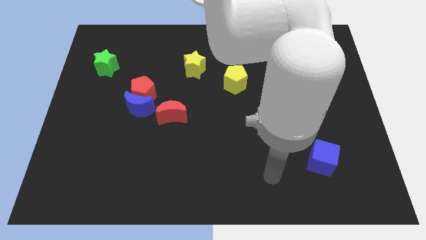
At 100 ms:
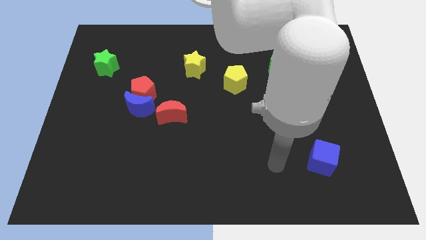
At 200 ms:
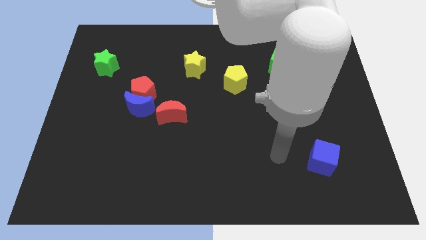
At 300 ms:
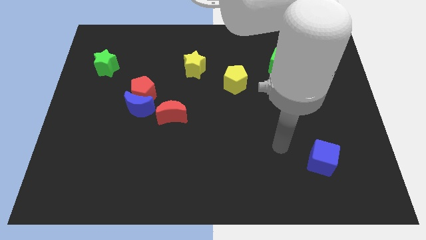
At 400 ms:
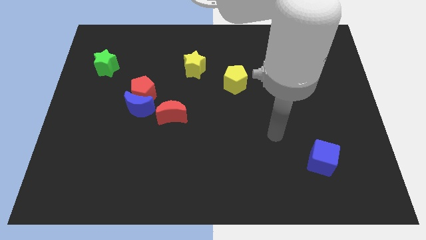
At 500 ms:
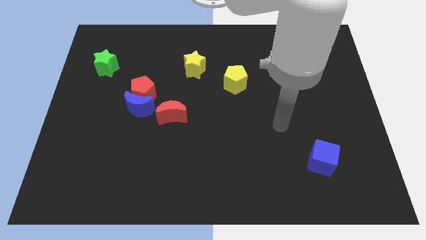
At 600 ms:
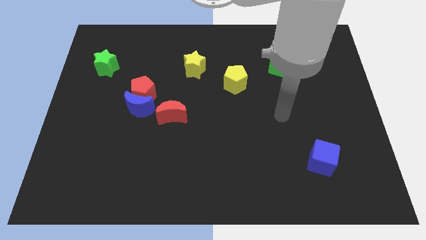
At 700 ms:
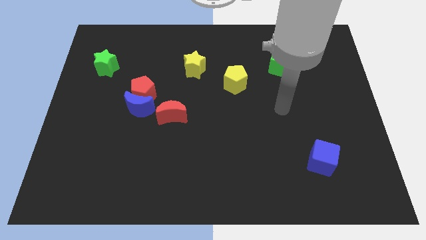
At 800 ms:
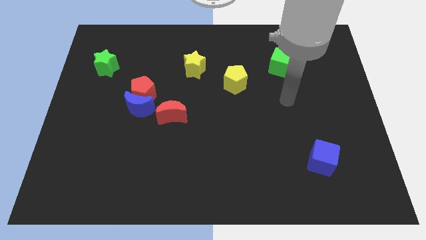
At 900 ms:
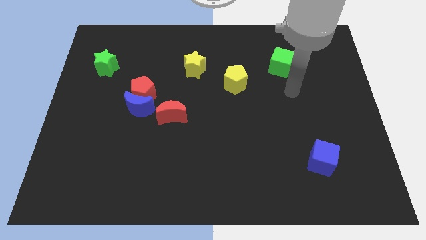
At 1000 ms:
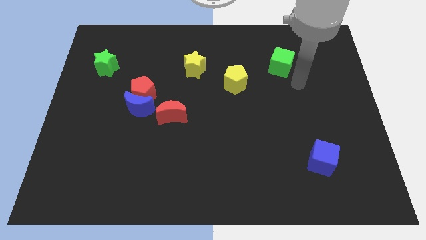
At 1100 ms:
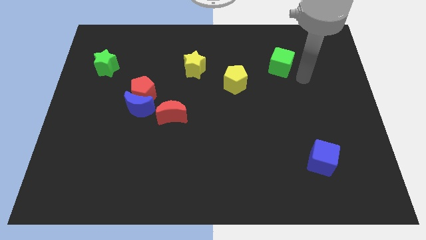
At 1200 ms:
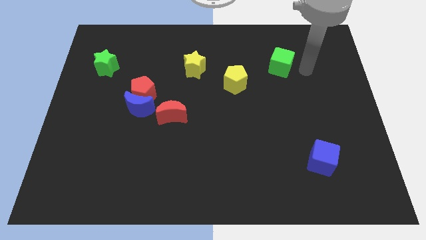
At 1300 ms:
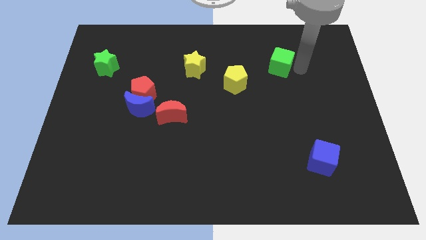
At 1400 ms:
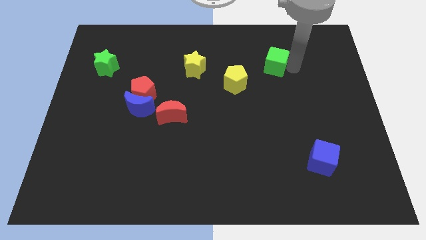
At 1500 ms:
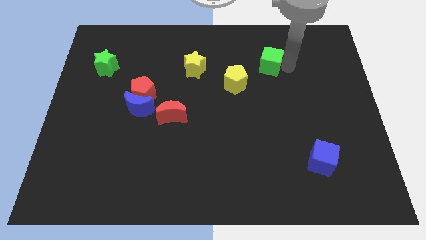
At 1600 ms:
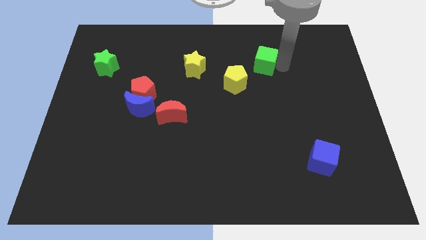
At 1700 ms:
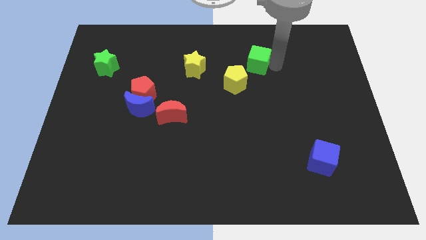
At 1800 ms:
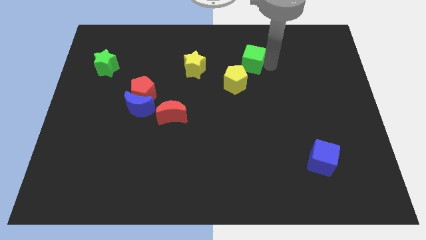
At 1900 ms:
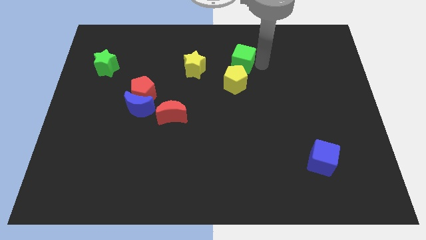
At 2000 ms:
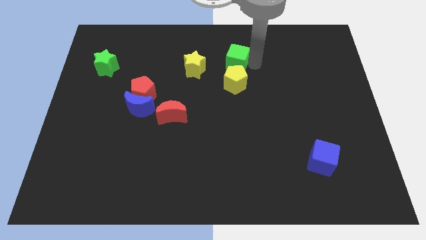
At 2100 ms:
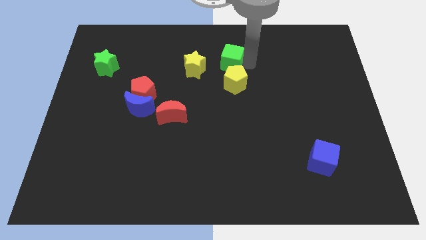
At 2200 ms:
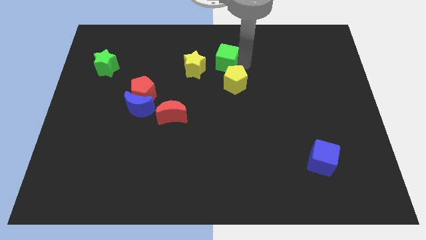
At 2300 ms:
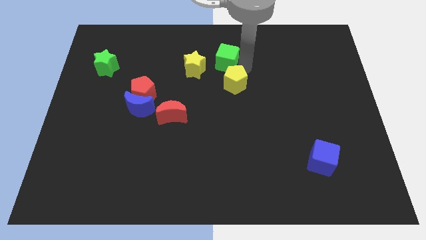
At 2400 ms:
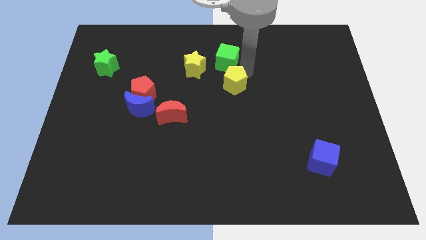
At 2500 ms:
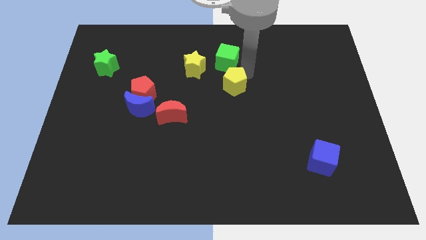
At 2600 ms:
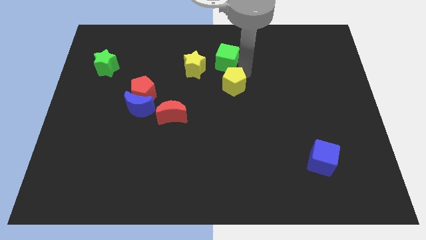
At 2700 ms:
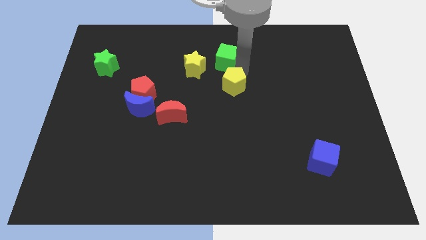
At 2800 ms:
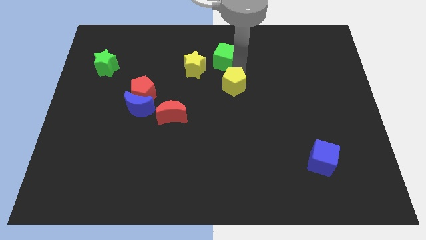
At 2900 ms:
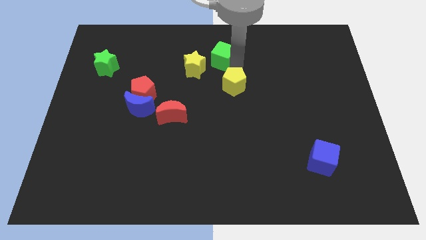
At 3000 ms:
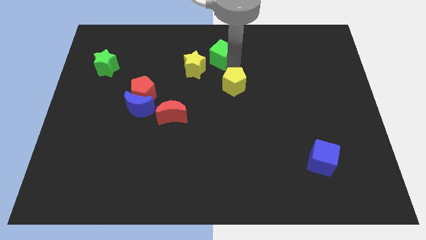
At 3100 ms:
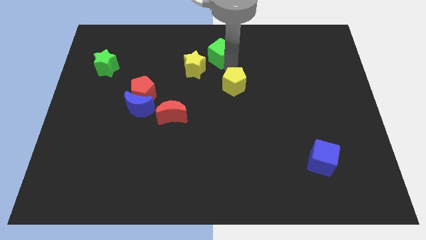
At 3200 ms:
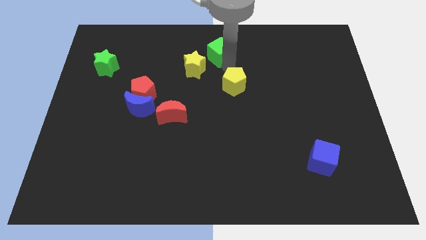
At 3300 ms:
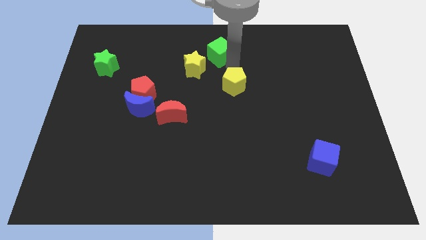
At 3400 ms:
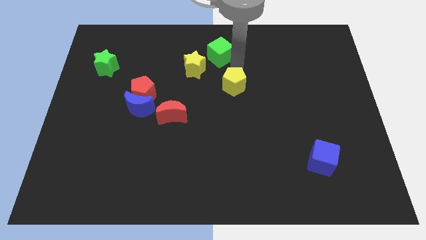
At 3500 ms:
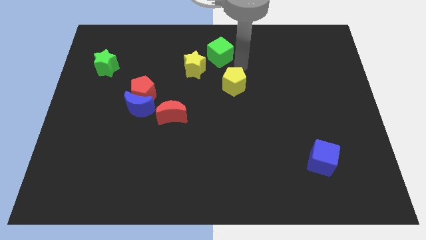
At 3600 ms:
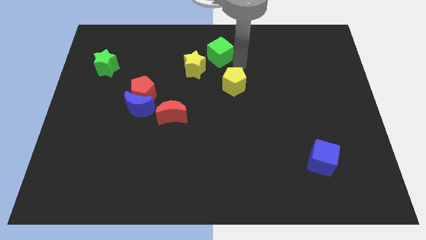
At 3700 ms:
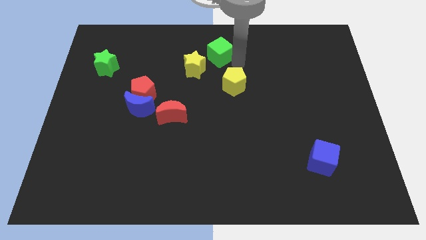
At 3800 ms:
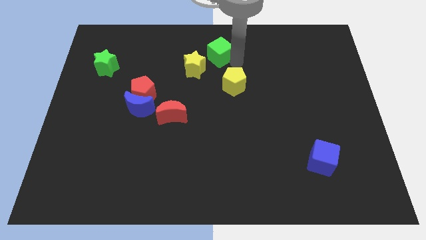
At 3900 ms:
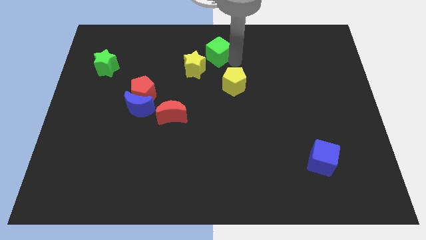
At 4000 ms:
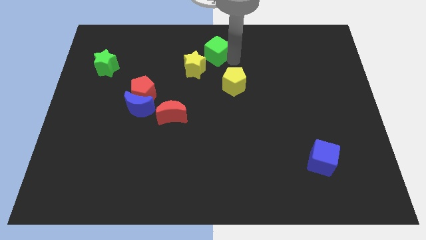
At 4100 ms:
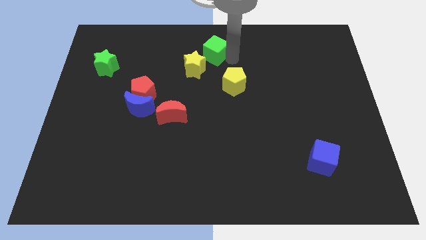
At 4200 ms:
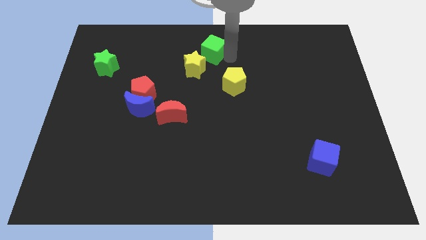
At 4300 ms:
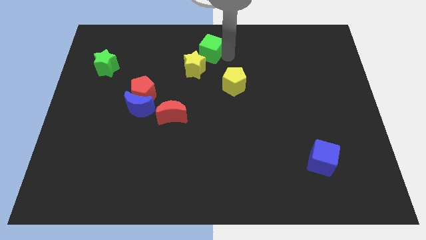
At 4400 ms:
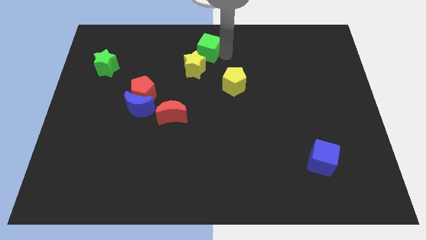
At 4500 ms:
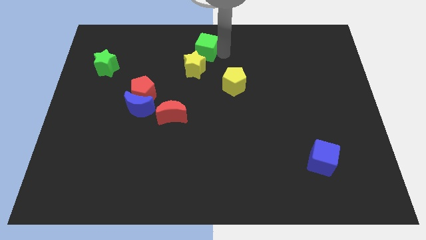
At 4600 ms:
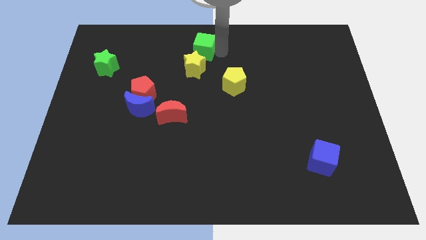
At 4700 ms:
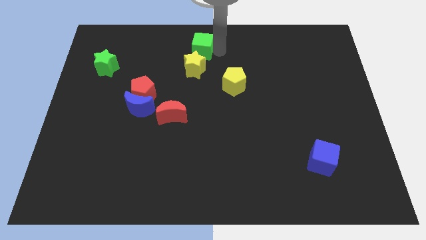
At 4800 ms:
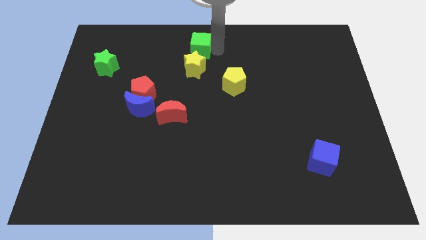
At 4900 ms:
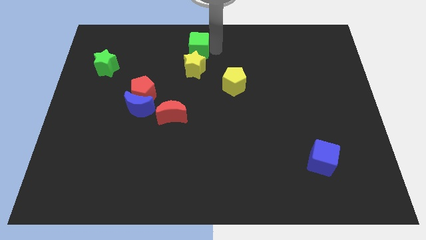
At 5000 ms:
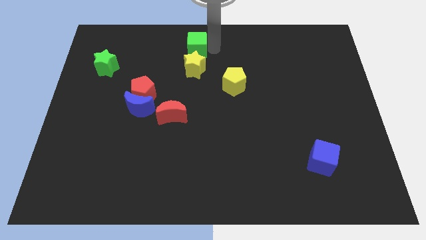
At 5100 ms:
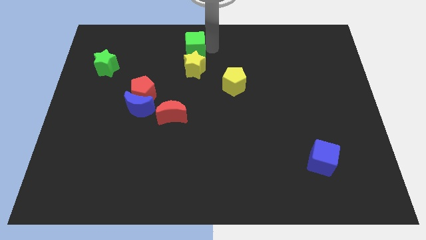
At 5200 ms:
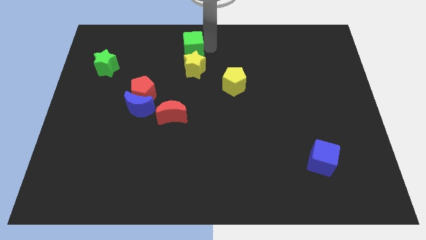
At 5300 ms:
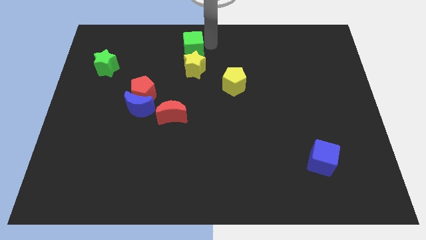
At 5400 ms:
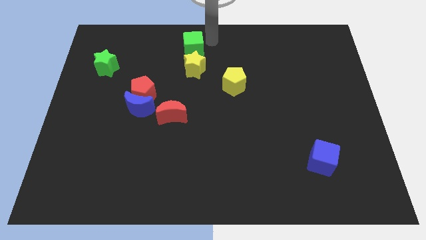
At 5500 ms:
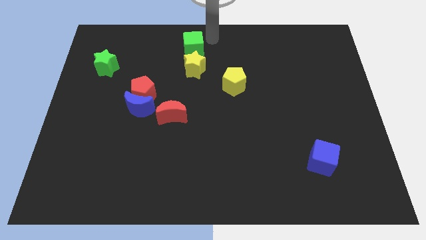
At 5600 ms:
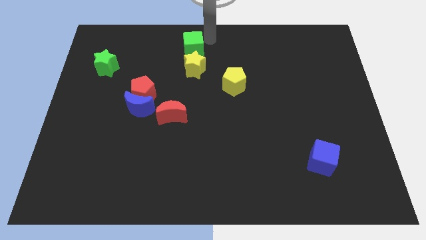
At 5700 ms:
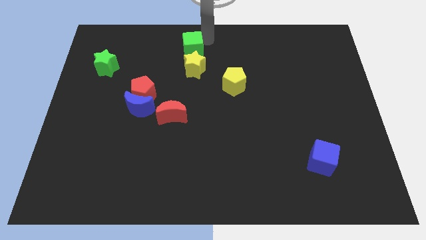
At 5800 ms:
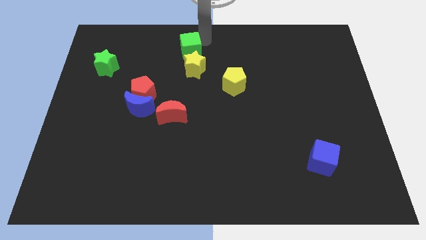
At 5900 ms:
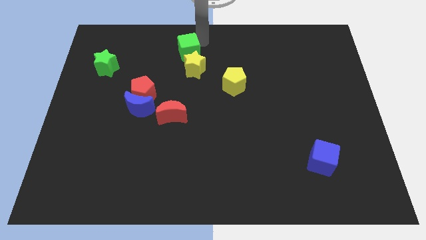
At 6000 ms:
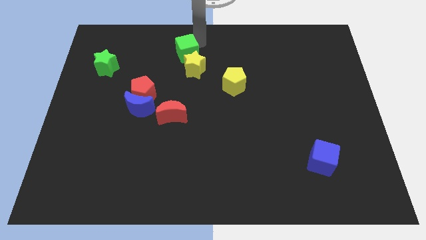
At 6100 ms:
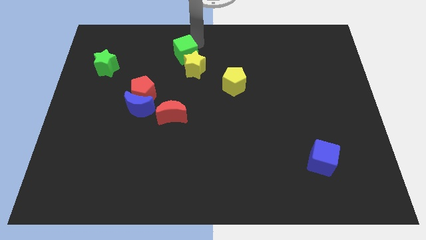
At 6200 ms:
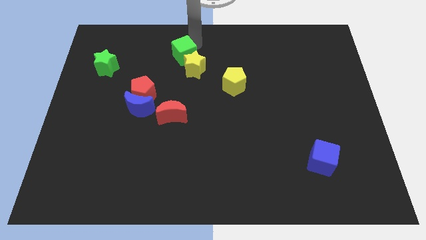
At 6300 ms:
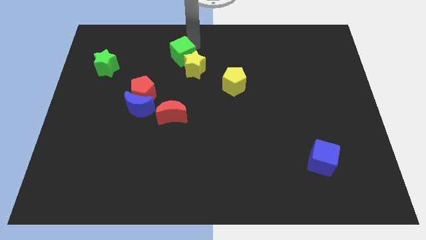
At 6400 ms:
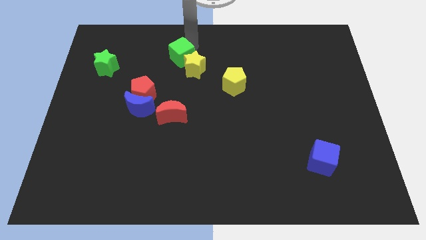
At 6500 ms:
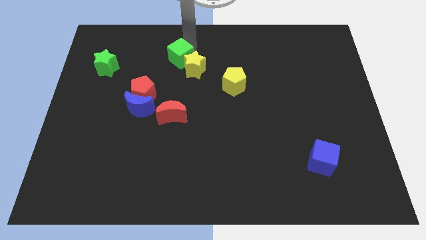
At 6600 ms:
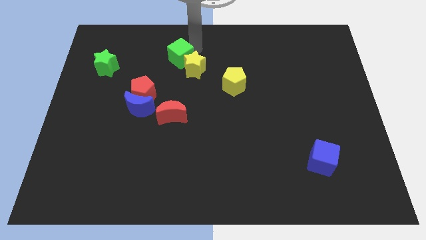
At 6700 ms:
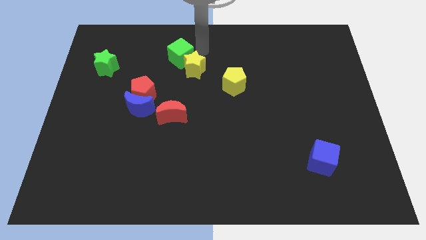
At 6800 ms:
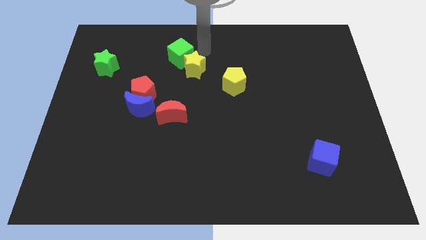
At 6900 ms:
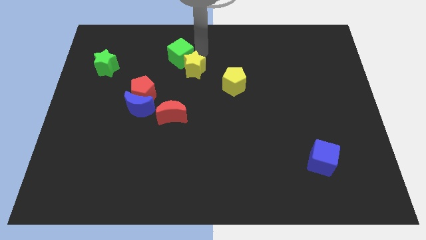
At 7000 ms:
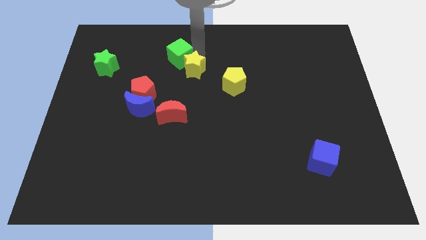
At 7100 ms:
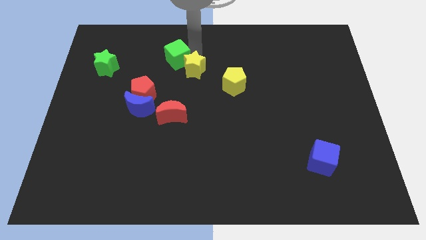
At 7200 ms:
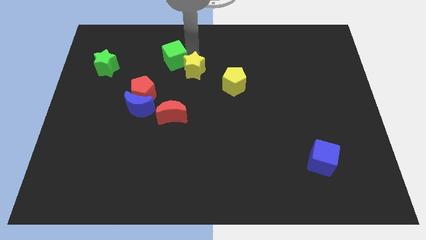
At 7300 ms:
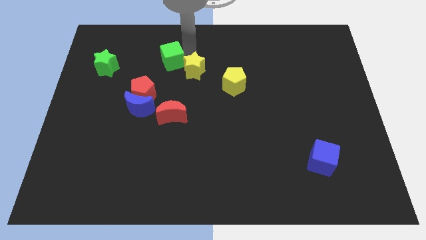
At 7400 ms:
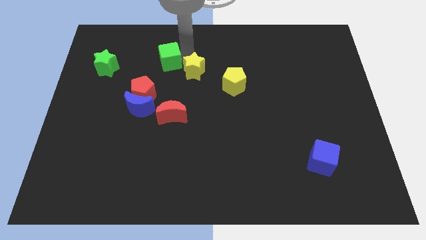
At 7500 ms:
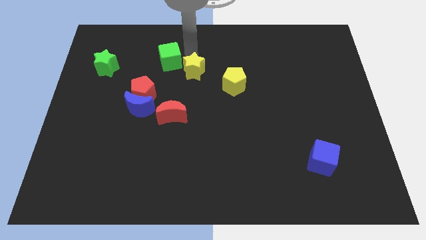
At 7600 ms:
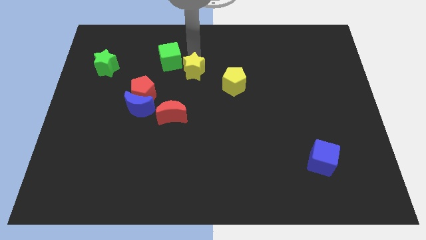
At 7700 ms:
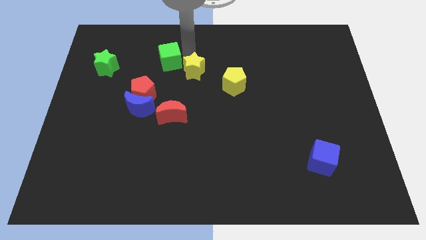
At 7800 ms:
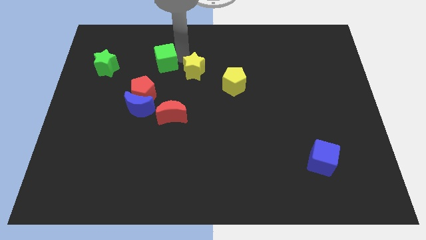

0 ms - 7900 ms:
put the green cube right of the green star

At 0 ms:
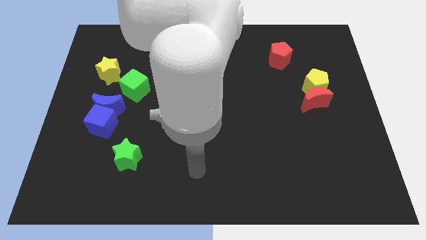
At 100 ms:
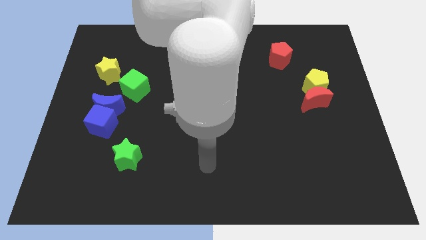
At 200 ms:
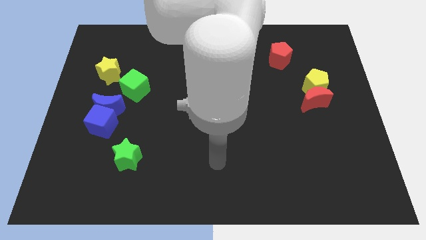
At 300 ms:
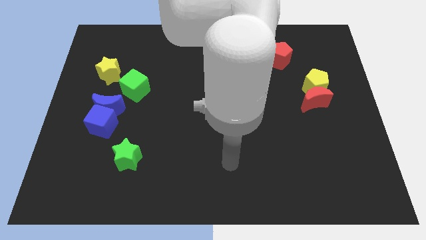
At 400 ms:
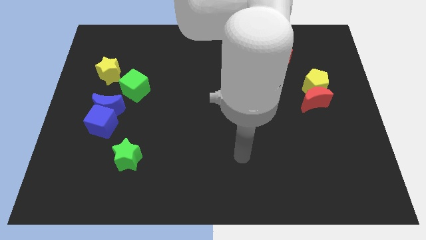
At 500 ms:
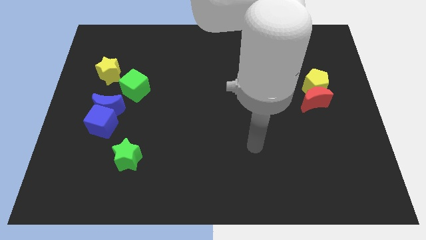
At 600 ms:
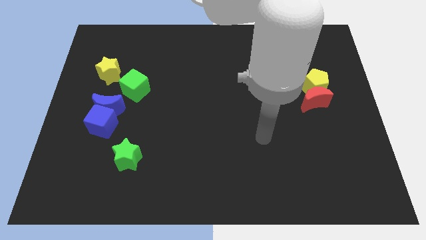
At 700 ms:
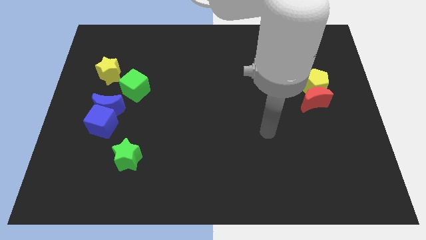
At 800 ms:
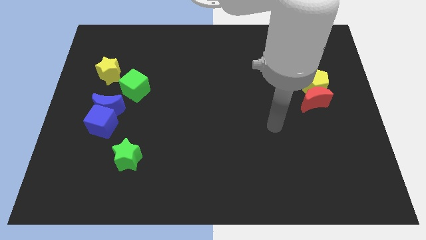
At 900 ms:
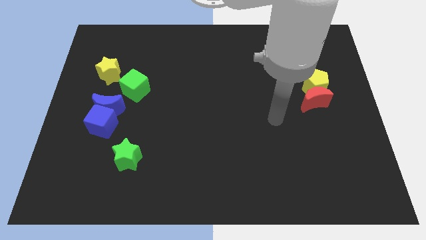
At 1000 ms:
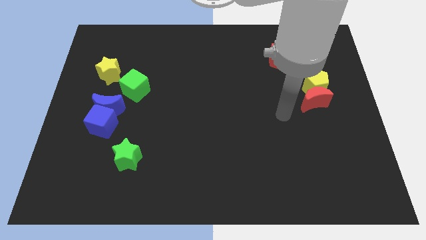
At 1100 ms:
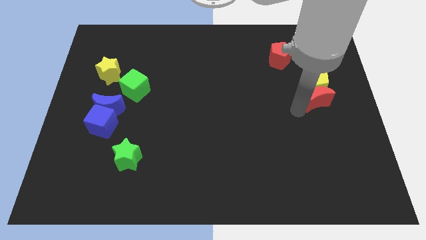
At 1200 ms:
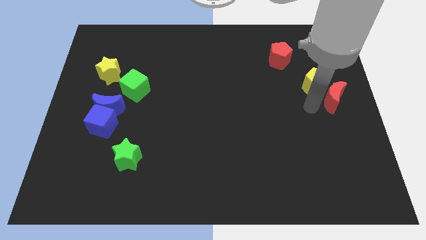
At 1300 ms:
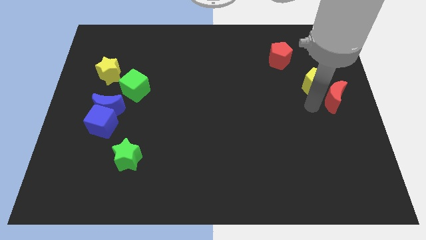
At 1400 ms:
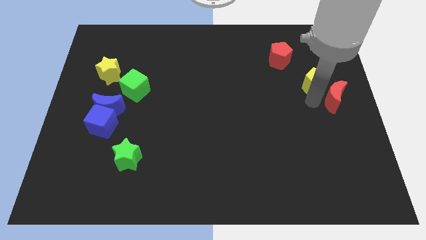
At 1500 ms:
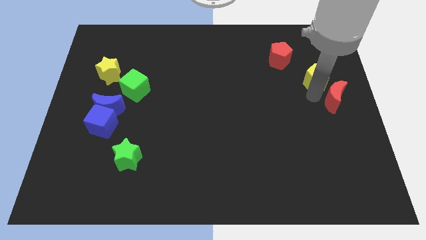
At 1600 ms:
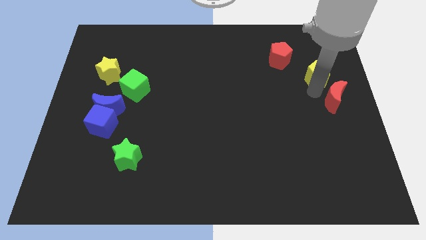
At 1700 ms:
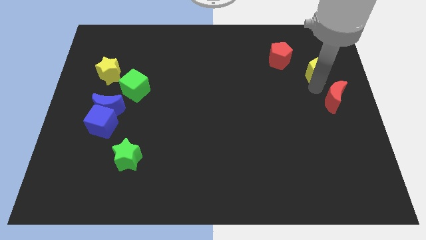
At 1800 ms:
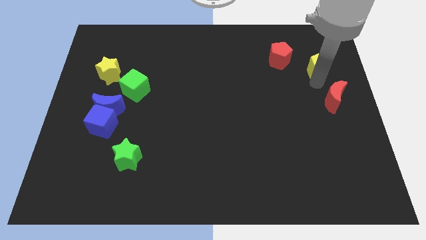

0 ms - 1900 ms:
slide the yellow pentagon to the right of the red pentagon
